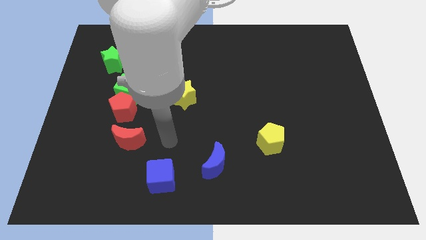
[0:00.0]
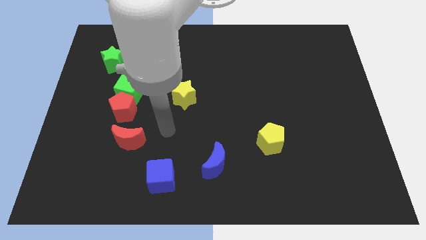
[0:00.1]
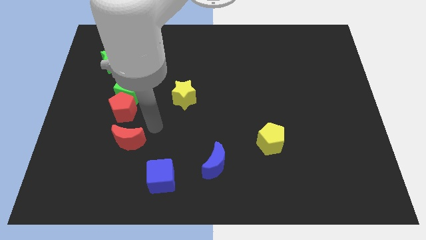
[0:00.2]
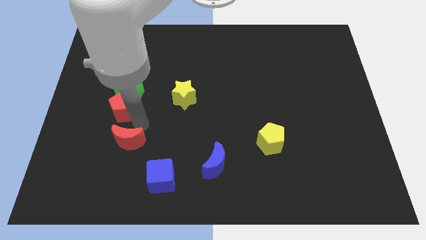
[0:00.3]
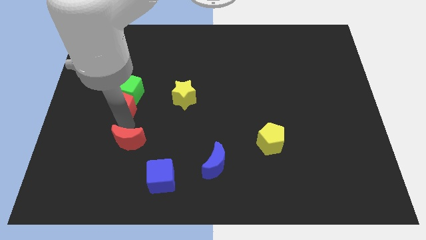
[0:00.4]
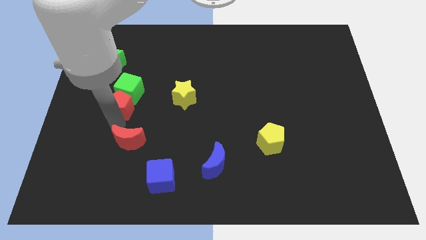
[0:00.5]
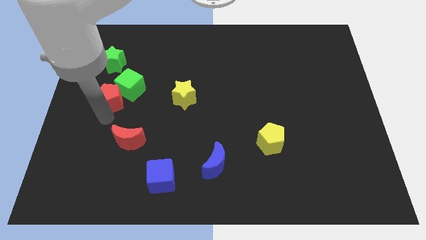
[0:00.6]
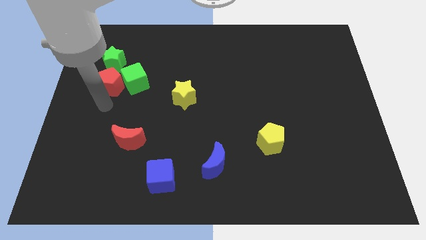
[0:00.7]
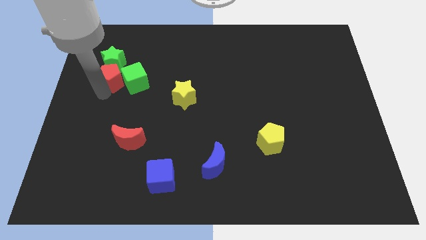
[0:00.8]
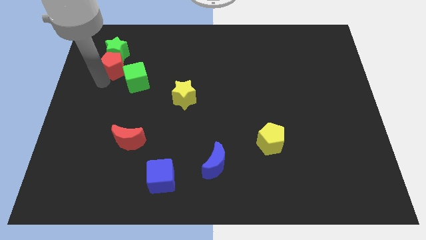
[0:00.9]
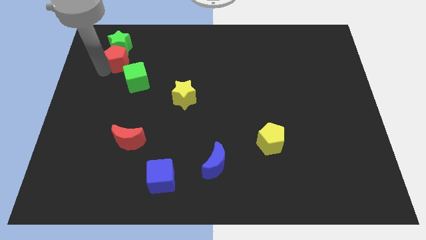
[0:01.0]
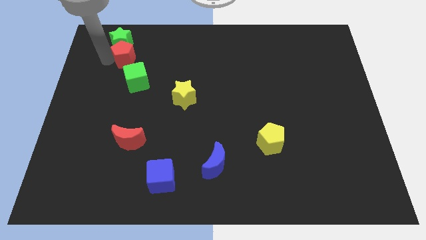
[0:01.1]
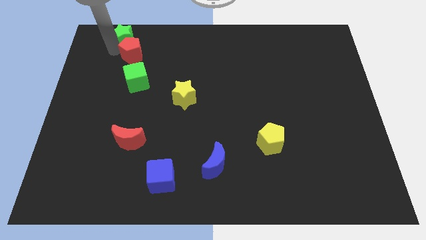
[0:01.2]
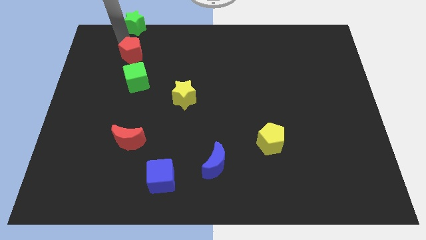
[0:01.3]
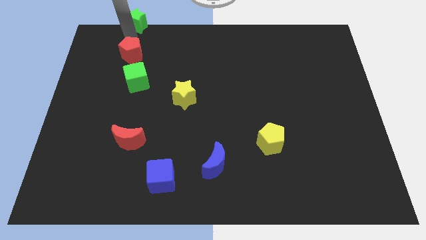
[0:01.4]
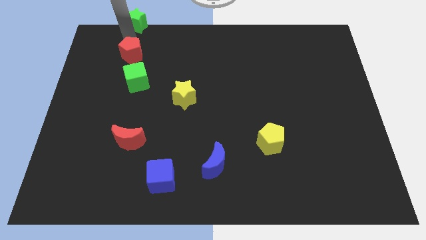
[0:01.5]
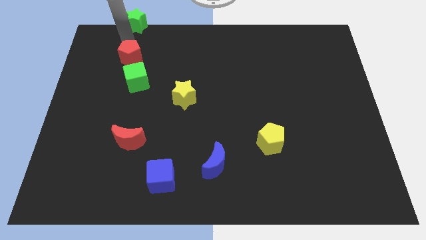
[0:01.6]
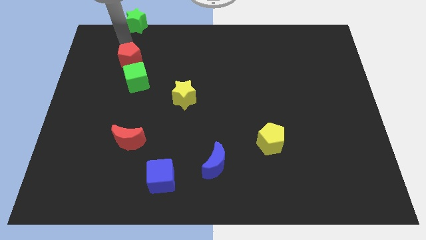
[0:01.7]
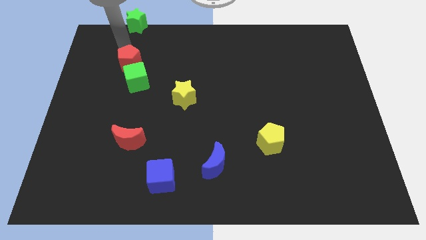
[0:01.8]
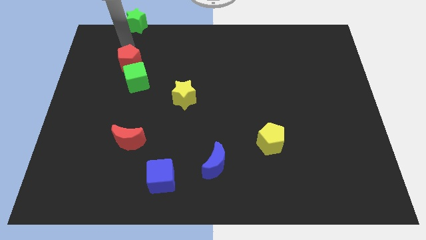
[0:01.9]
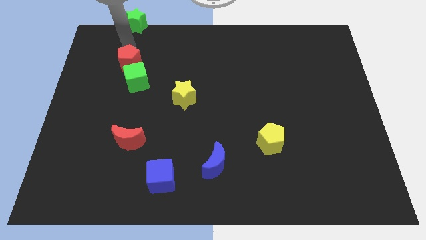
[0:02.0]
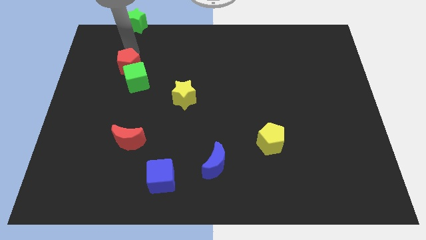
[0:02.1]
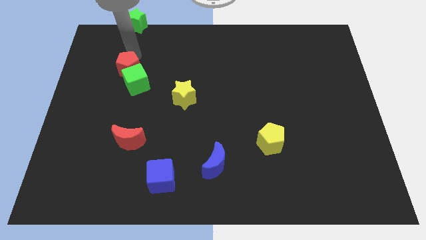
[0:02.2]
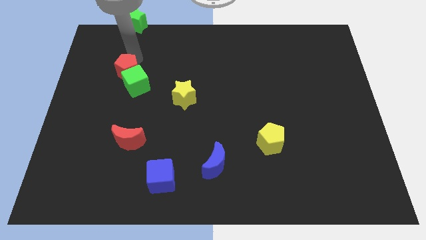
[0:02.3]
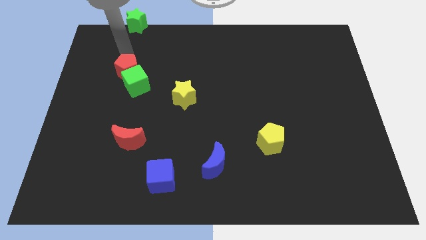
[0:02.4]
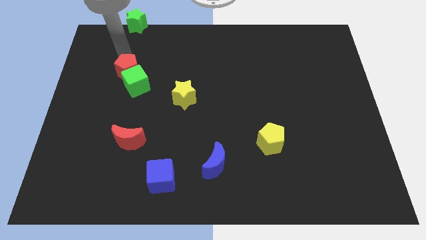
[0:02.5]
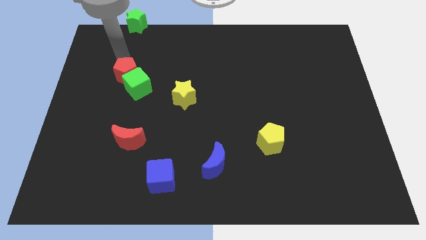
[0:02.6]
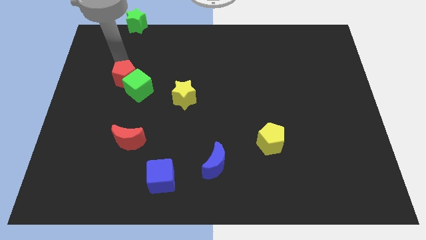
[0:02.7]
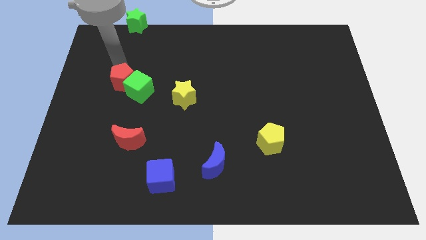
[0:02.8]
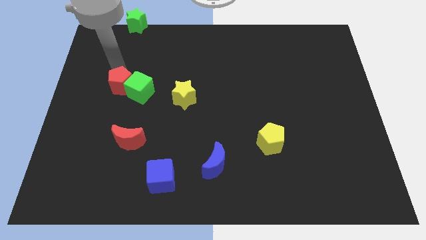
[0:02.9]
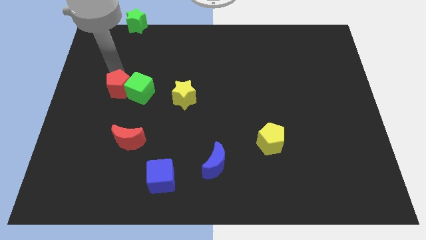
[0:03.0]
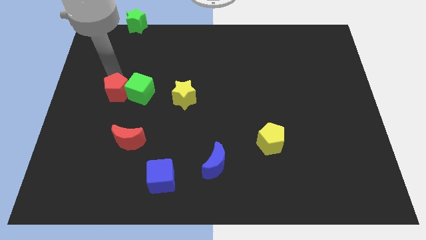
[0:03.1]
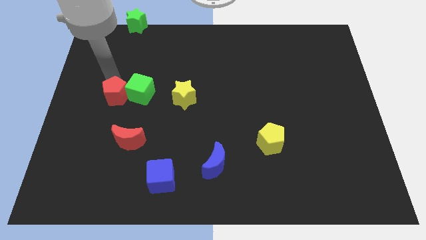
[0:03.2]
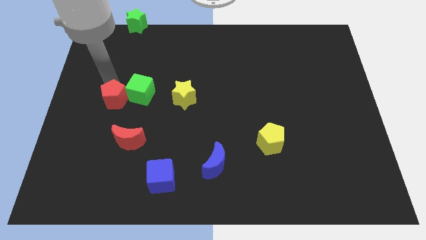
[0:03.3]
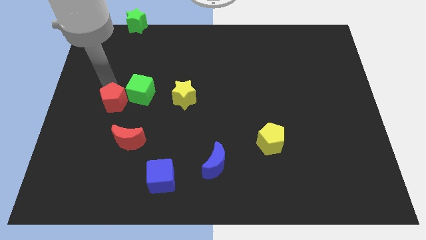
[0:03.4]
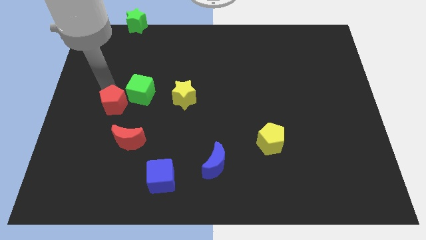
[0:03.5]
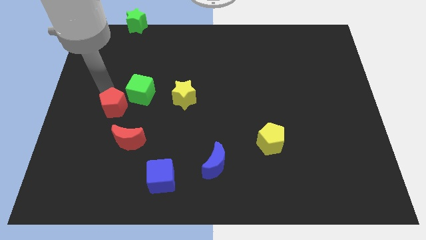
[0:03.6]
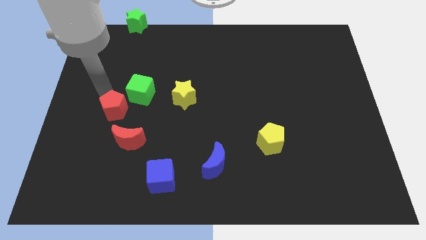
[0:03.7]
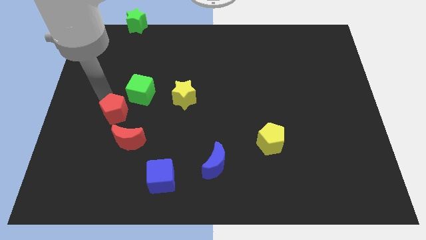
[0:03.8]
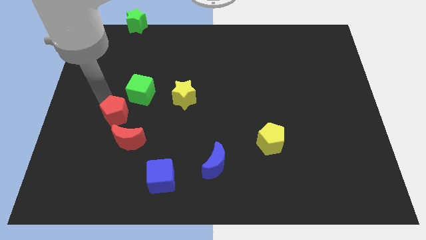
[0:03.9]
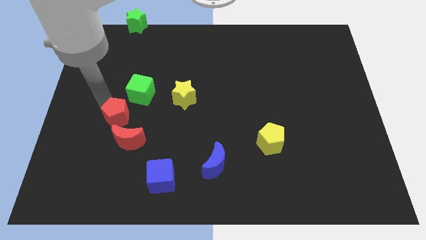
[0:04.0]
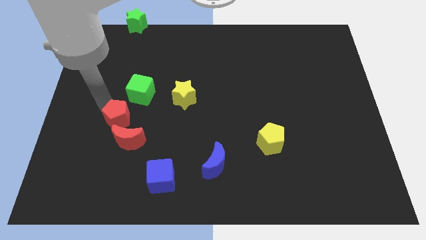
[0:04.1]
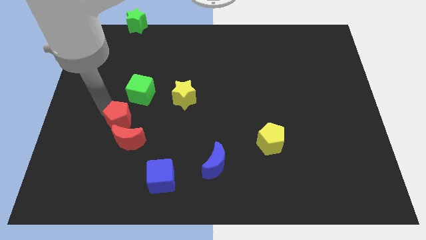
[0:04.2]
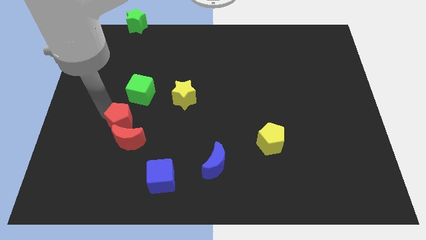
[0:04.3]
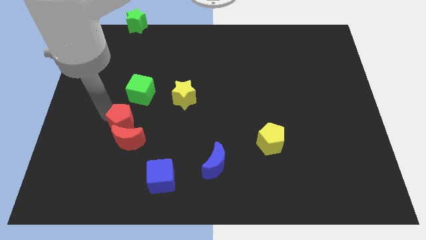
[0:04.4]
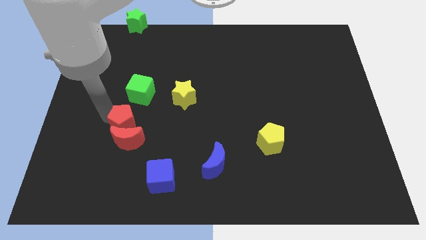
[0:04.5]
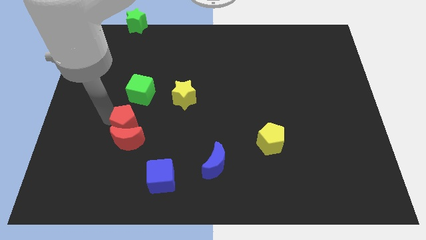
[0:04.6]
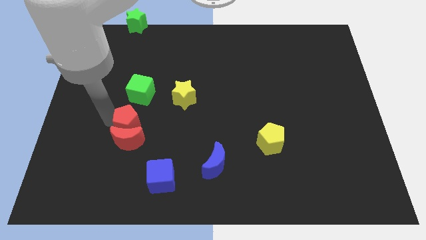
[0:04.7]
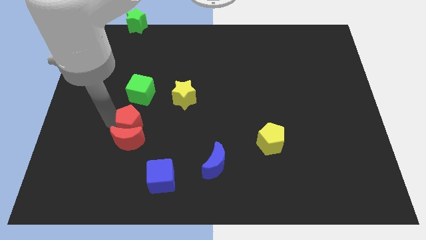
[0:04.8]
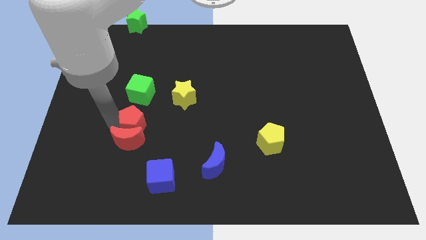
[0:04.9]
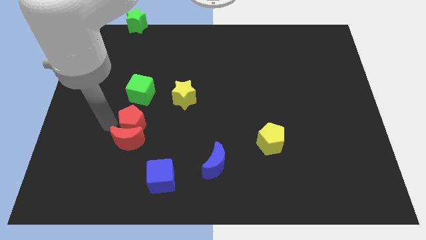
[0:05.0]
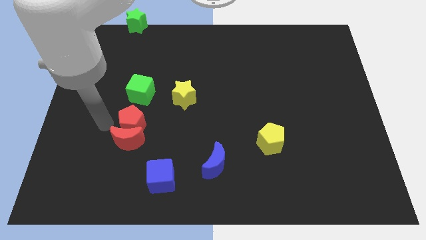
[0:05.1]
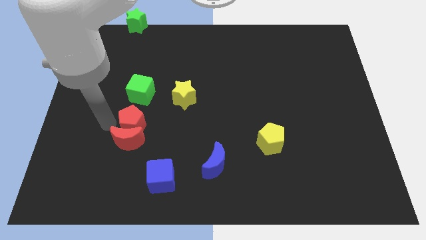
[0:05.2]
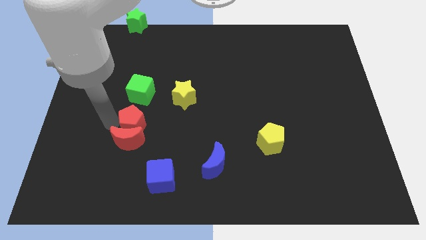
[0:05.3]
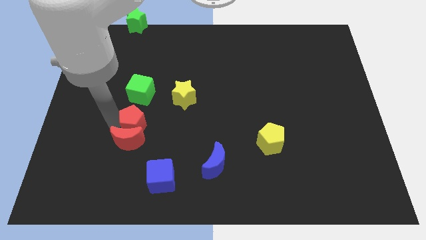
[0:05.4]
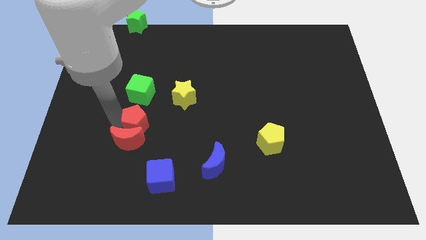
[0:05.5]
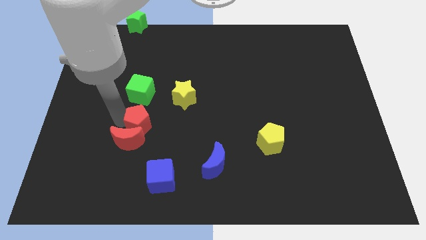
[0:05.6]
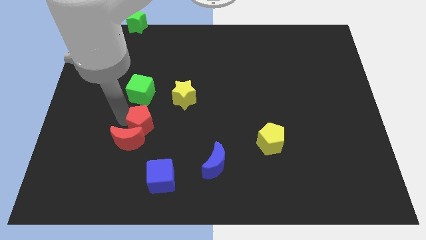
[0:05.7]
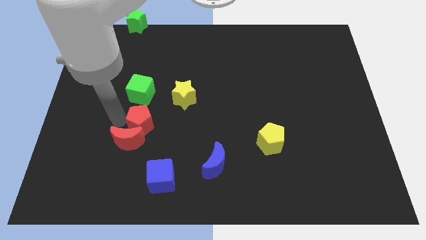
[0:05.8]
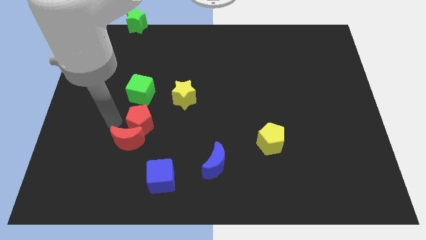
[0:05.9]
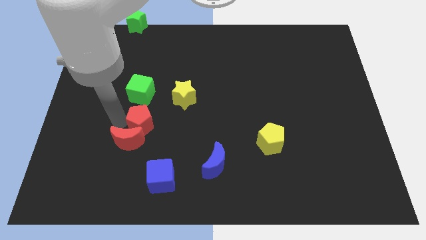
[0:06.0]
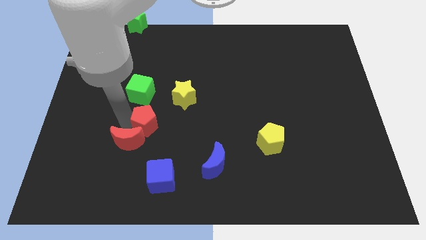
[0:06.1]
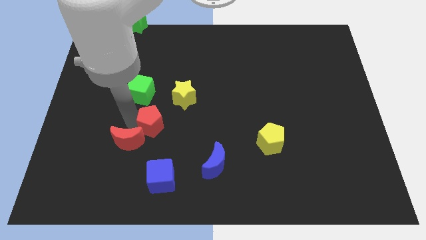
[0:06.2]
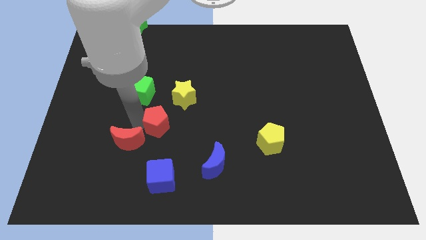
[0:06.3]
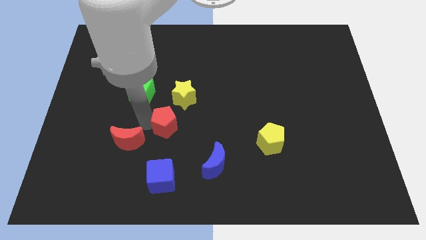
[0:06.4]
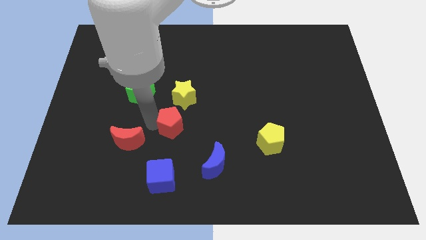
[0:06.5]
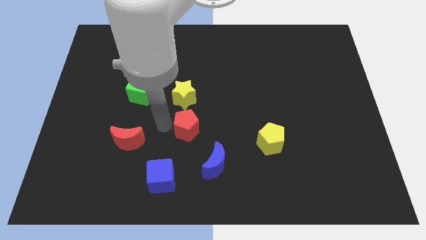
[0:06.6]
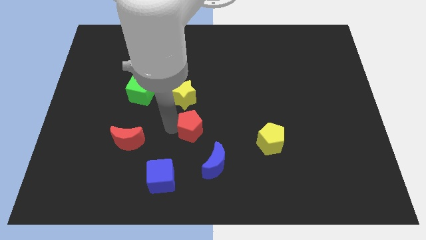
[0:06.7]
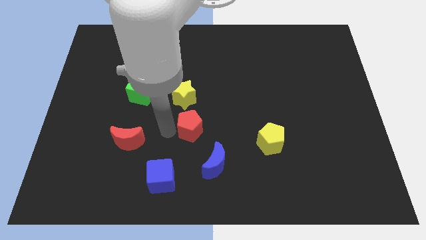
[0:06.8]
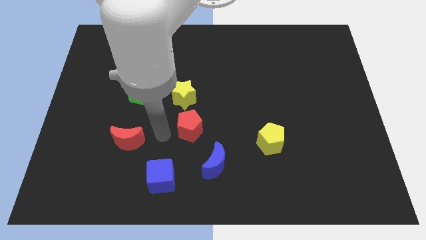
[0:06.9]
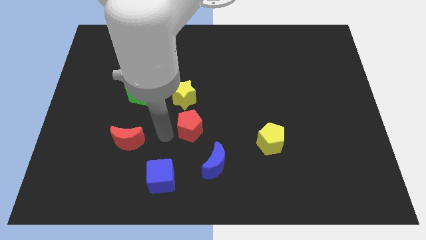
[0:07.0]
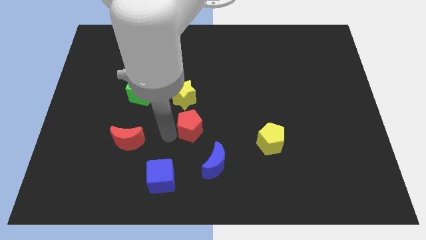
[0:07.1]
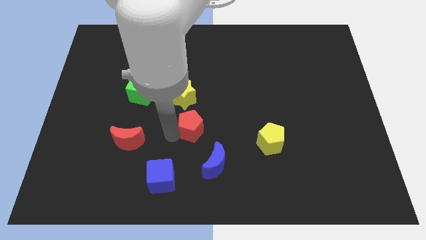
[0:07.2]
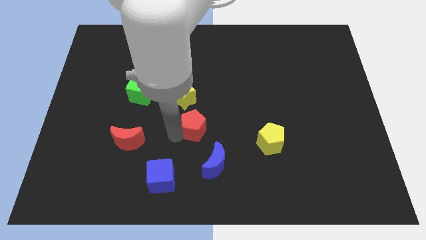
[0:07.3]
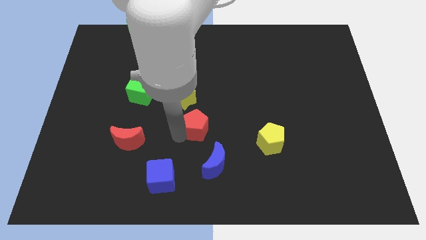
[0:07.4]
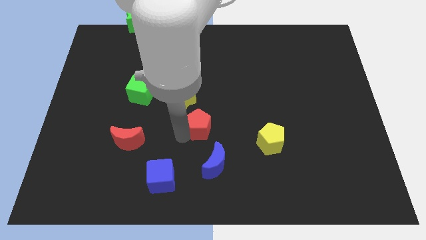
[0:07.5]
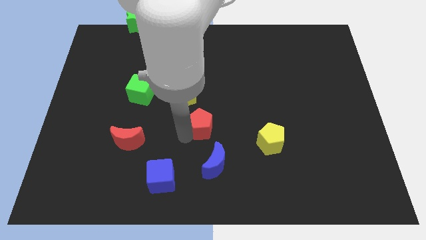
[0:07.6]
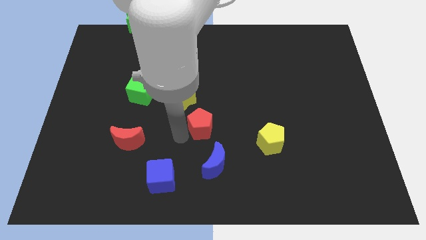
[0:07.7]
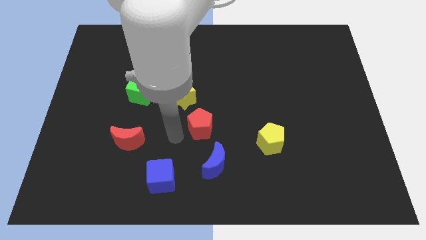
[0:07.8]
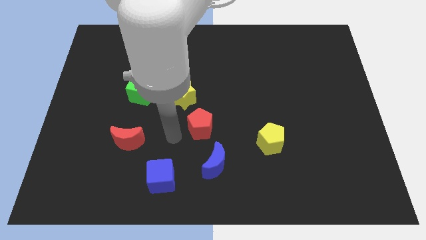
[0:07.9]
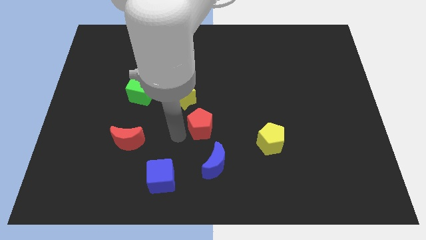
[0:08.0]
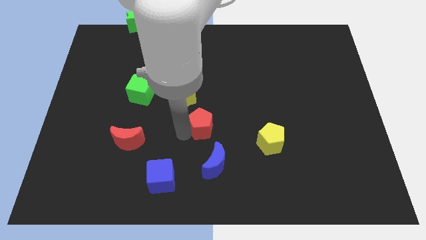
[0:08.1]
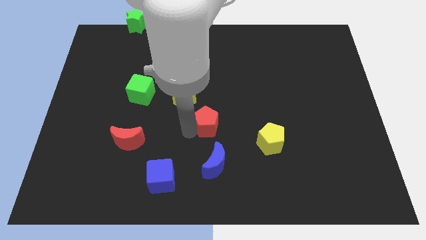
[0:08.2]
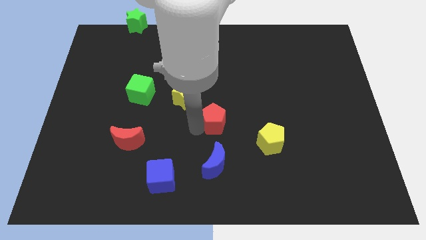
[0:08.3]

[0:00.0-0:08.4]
slide the red pentagon right
